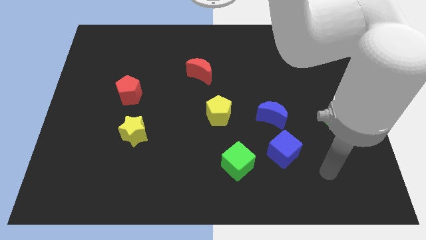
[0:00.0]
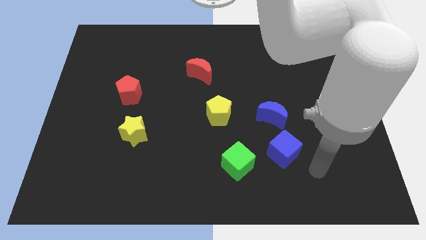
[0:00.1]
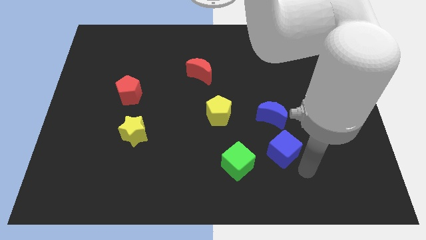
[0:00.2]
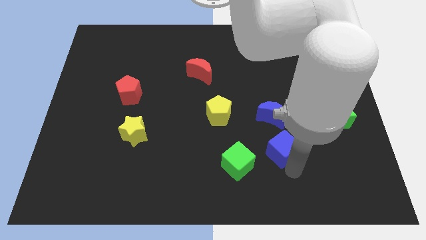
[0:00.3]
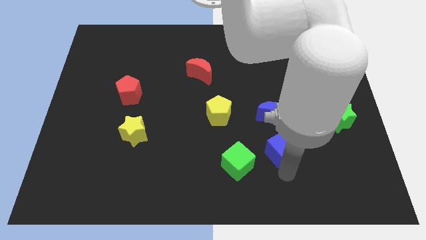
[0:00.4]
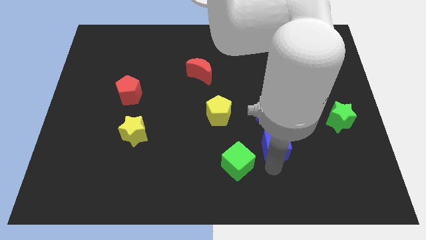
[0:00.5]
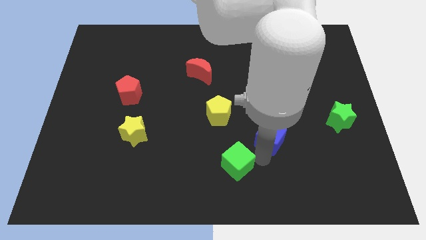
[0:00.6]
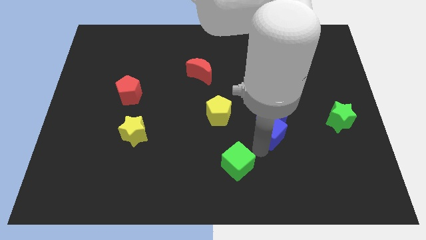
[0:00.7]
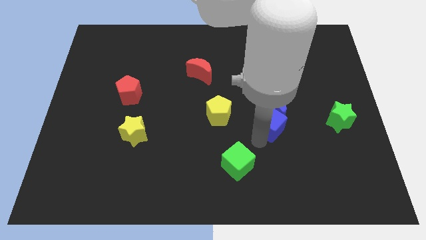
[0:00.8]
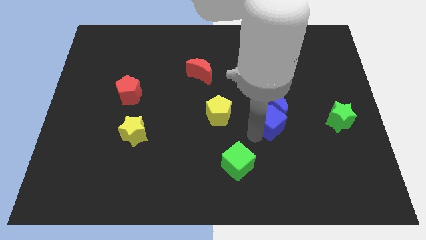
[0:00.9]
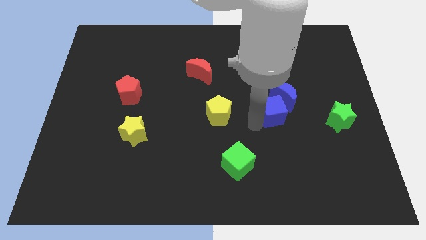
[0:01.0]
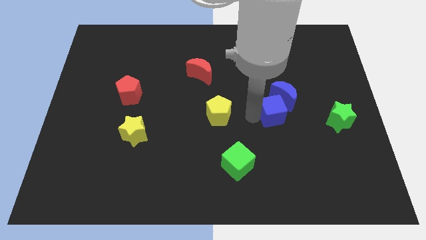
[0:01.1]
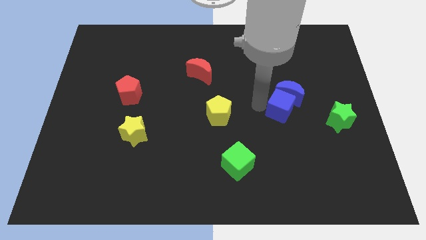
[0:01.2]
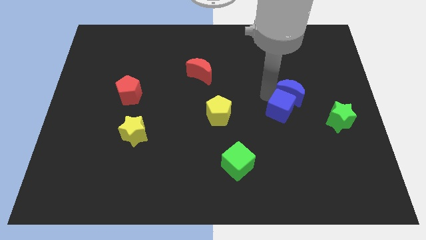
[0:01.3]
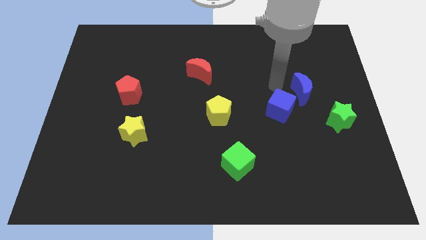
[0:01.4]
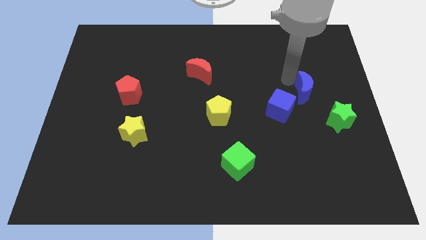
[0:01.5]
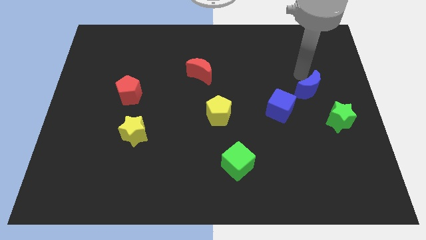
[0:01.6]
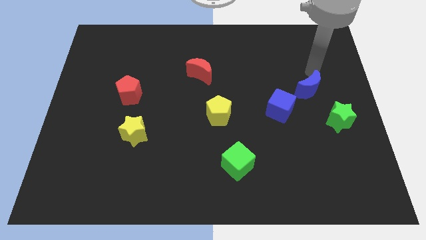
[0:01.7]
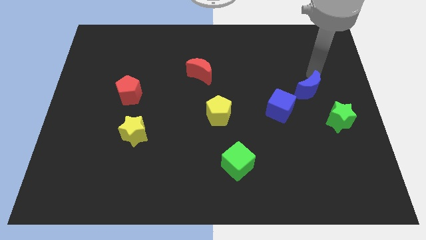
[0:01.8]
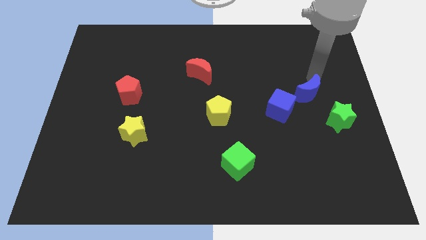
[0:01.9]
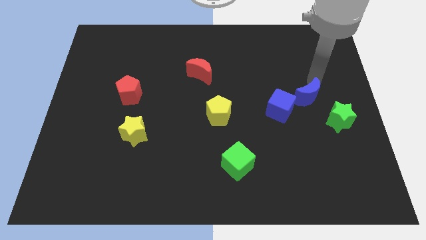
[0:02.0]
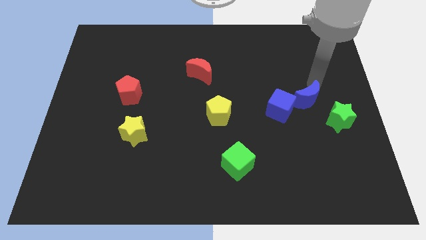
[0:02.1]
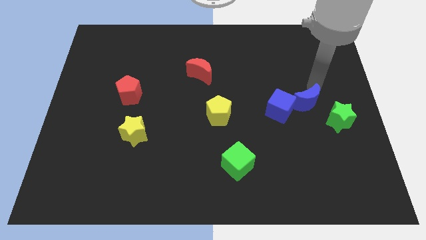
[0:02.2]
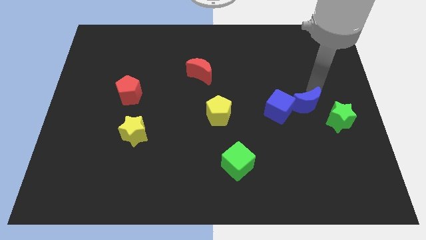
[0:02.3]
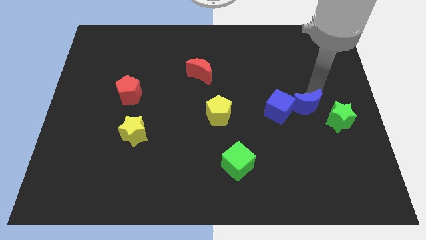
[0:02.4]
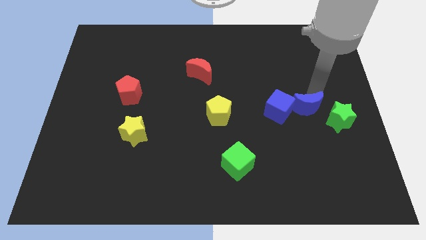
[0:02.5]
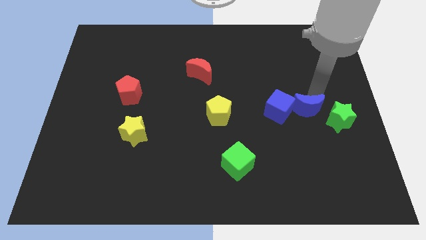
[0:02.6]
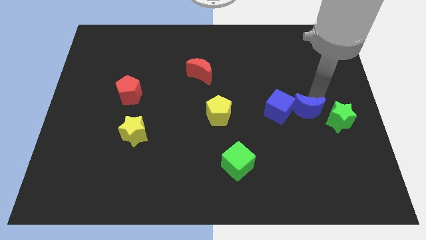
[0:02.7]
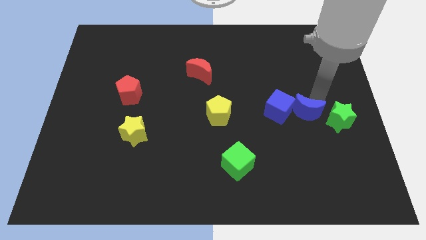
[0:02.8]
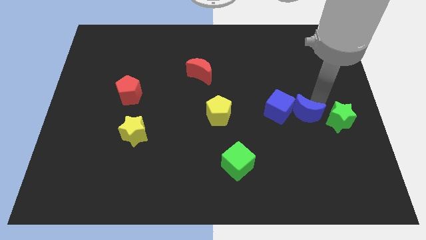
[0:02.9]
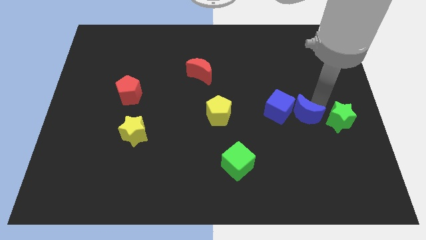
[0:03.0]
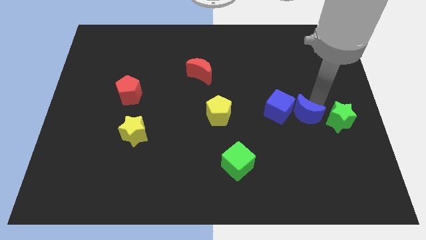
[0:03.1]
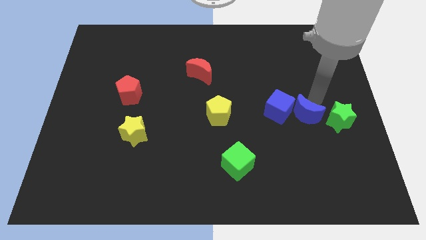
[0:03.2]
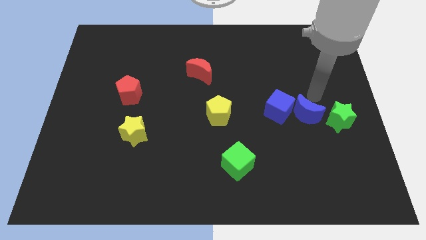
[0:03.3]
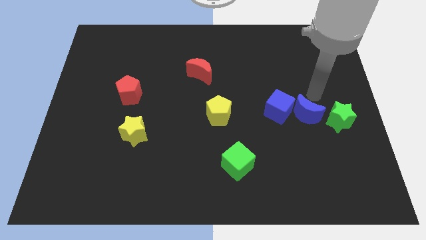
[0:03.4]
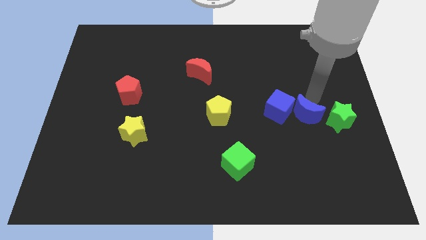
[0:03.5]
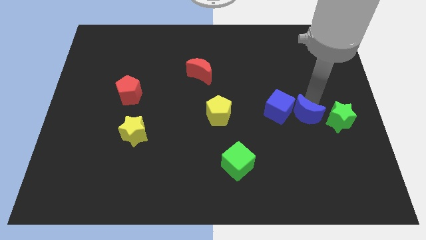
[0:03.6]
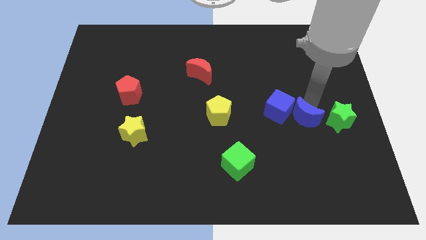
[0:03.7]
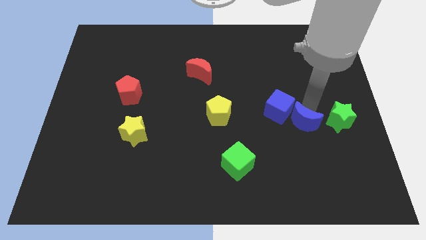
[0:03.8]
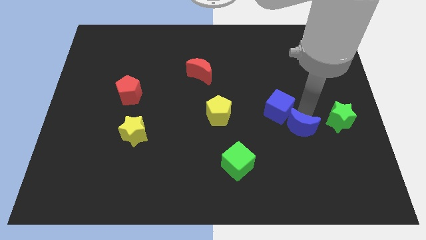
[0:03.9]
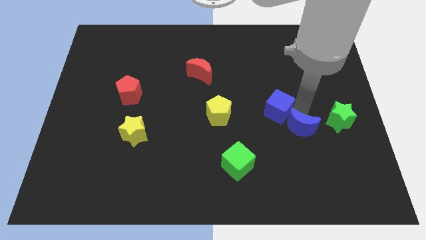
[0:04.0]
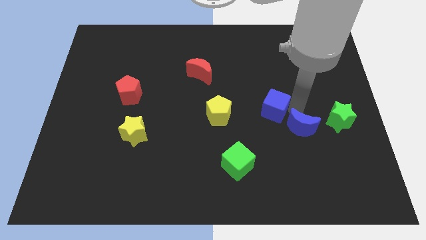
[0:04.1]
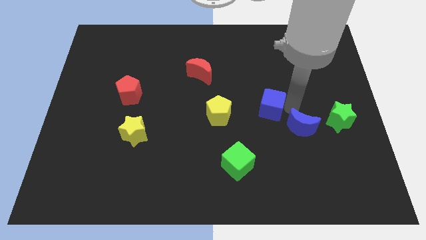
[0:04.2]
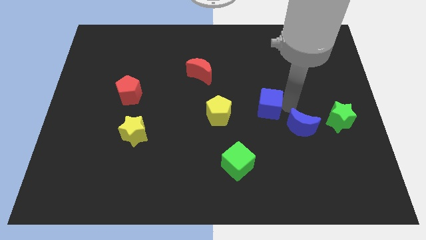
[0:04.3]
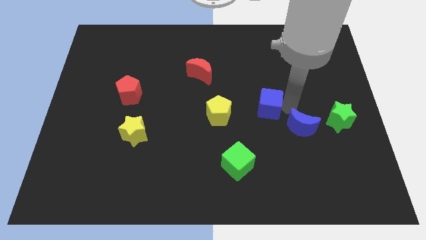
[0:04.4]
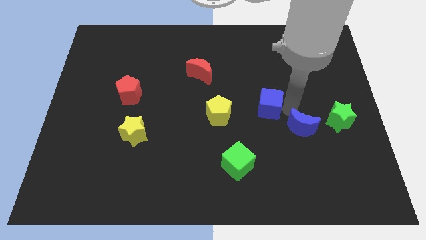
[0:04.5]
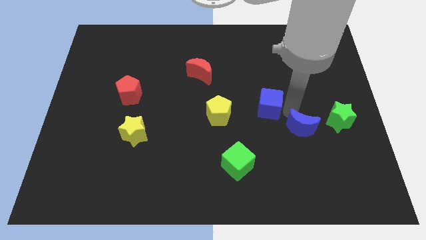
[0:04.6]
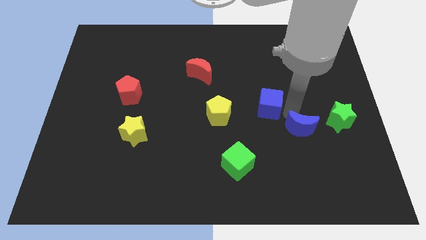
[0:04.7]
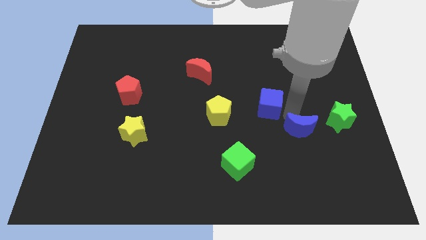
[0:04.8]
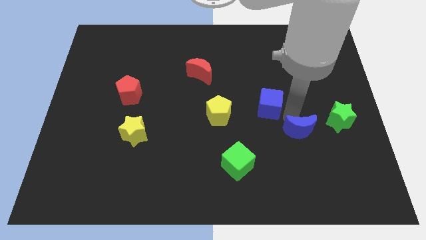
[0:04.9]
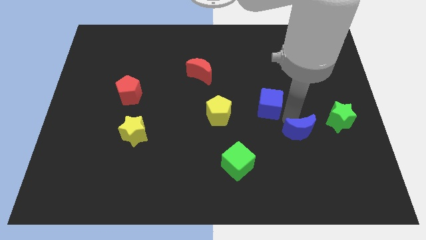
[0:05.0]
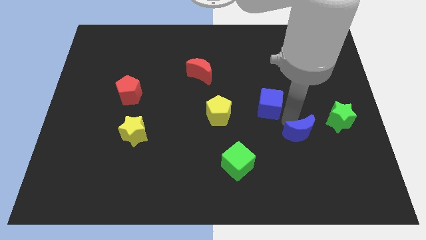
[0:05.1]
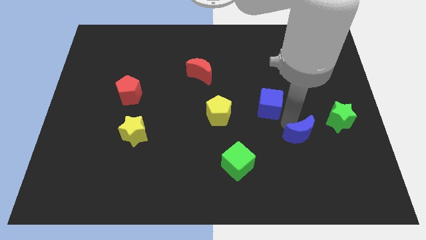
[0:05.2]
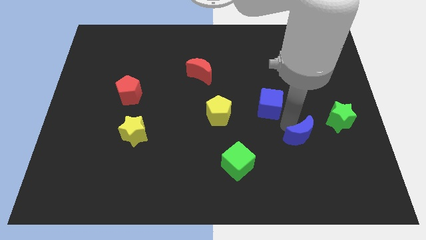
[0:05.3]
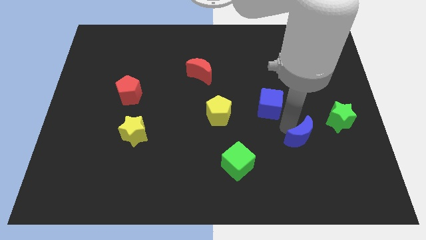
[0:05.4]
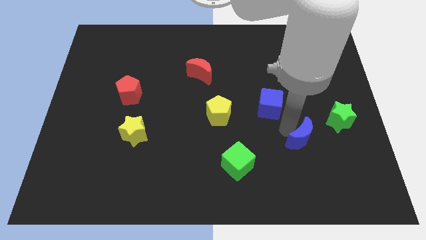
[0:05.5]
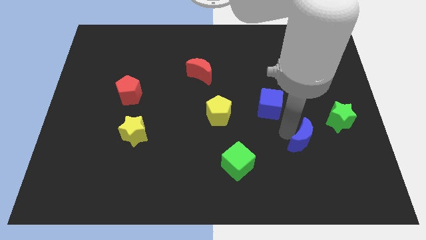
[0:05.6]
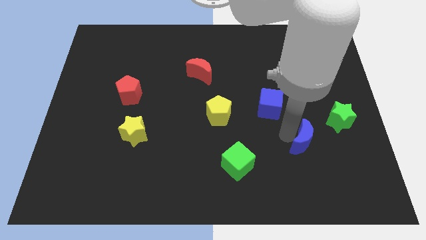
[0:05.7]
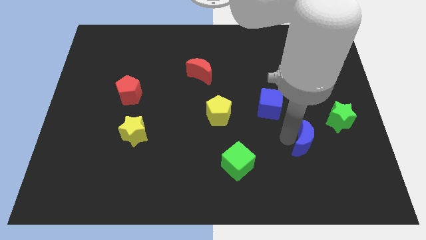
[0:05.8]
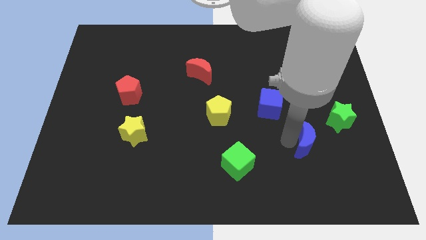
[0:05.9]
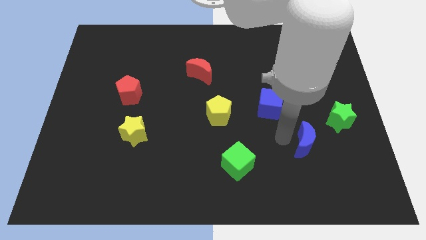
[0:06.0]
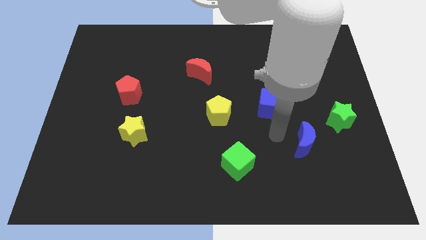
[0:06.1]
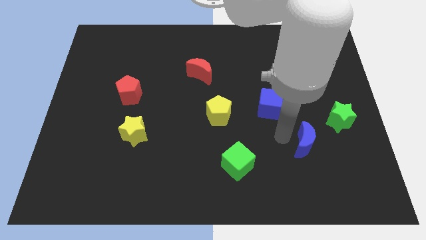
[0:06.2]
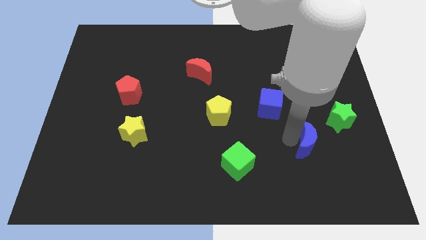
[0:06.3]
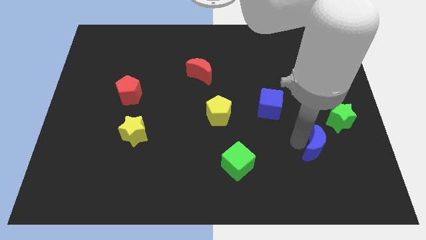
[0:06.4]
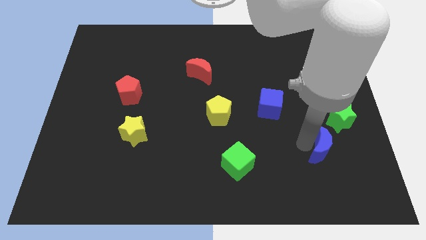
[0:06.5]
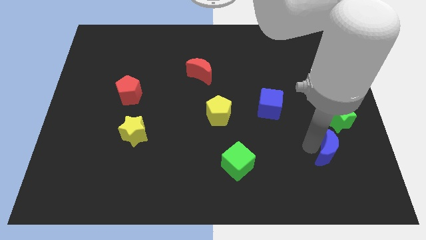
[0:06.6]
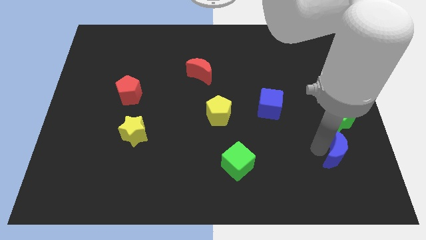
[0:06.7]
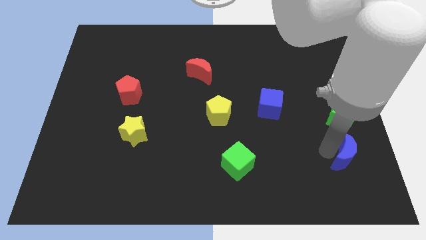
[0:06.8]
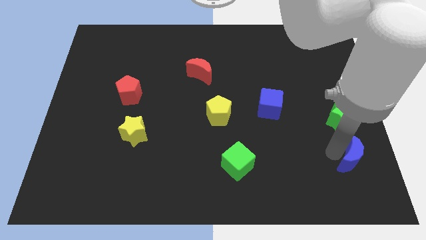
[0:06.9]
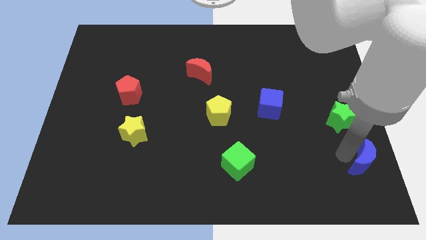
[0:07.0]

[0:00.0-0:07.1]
move the blue moon to the bottom right corner

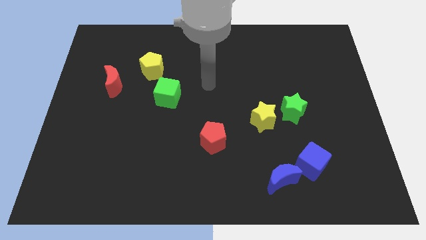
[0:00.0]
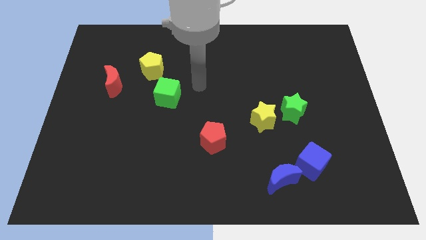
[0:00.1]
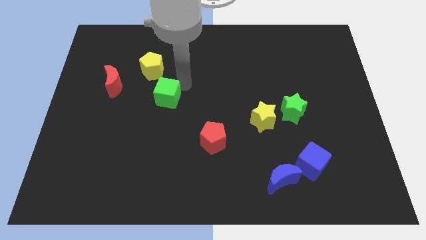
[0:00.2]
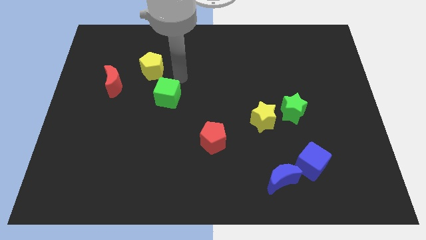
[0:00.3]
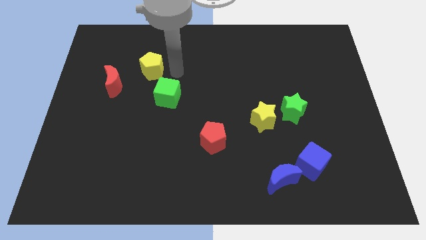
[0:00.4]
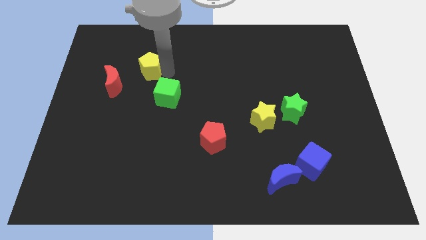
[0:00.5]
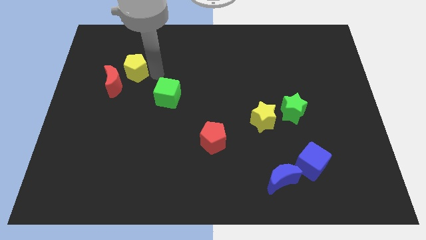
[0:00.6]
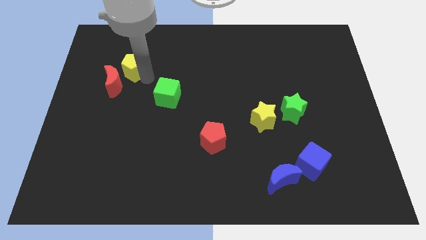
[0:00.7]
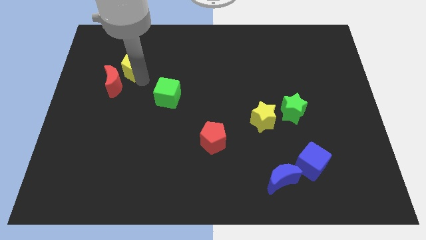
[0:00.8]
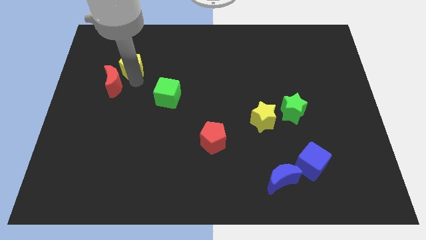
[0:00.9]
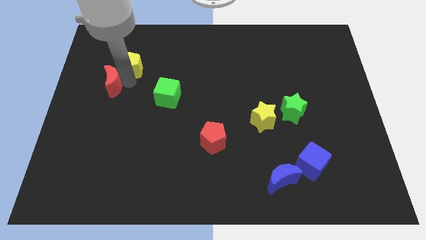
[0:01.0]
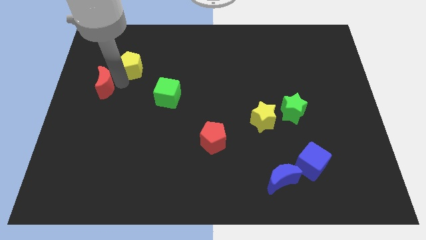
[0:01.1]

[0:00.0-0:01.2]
slide the red moon to the left side
